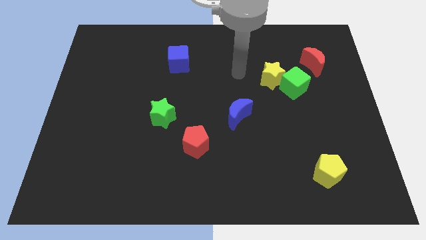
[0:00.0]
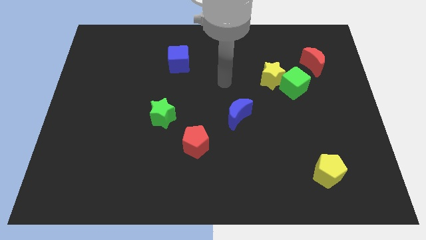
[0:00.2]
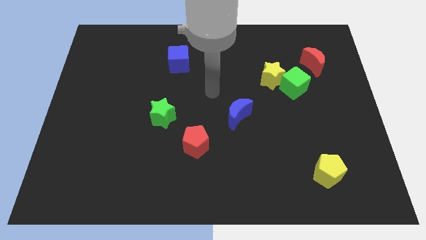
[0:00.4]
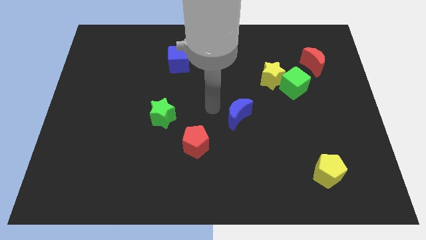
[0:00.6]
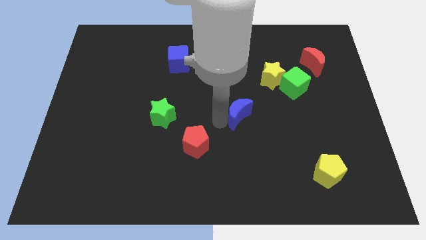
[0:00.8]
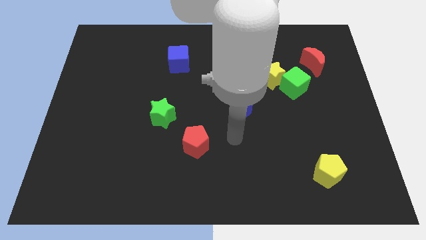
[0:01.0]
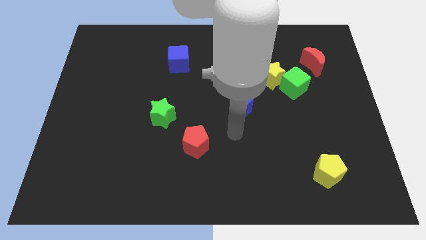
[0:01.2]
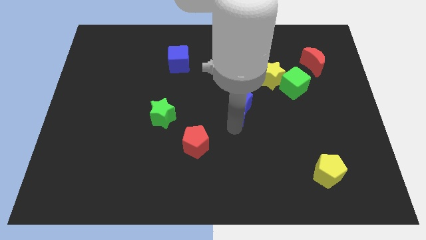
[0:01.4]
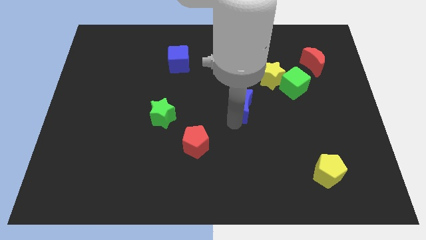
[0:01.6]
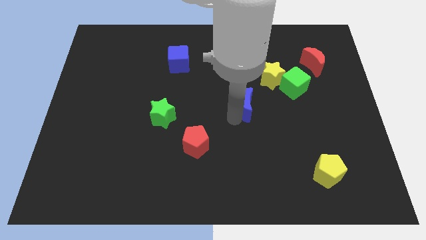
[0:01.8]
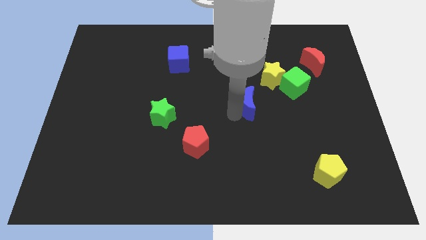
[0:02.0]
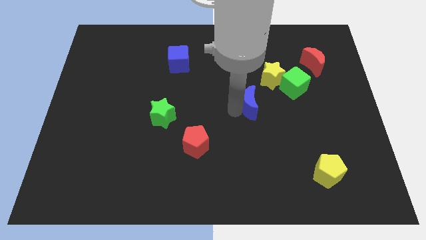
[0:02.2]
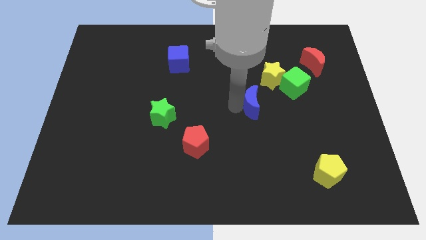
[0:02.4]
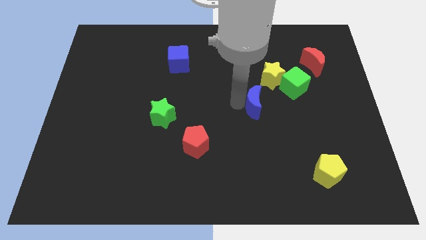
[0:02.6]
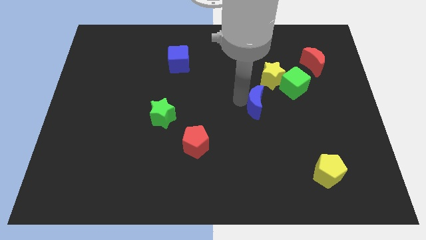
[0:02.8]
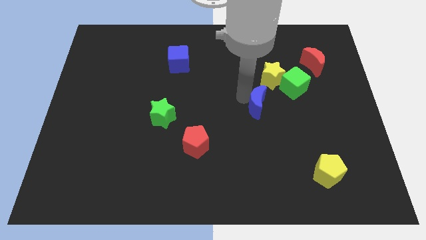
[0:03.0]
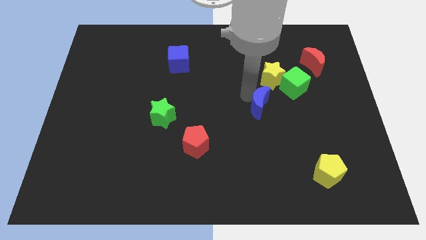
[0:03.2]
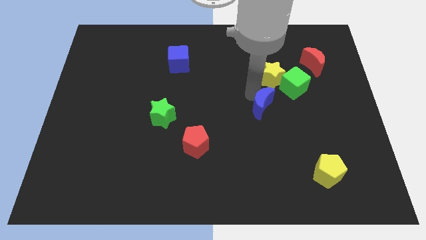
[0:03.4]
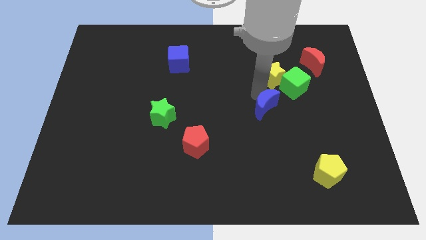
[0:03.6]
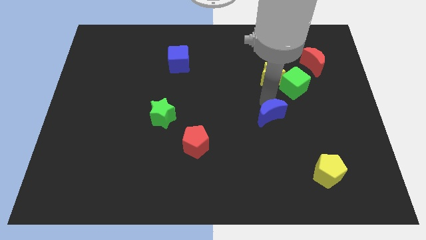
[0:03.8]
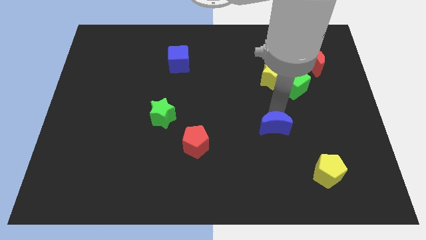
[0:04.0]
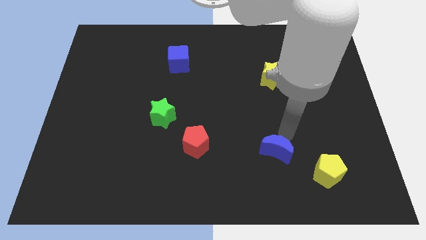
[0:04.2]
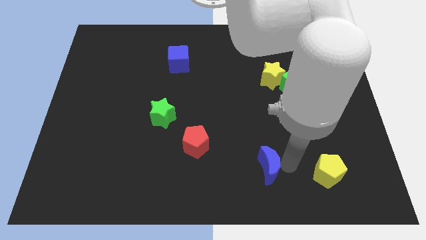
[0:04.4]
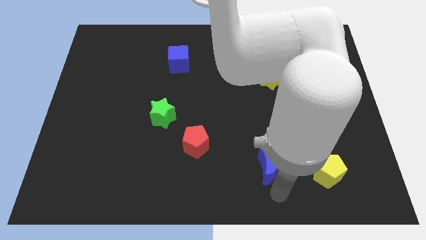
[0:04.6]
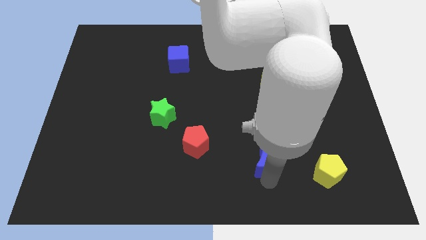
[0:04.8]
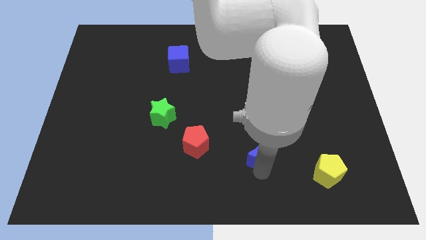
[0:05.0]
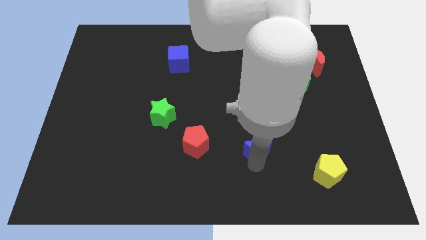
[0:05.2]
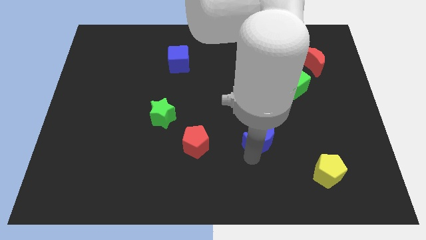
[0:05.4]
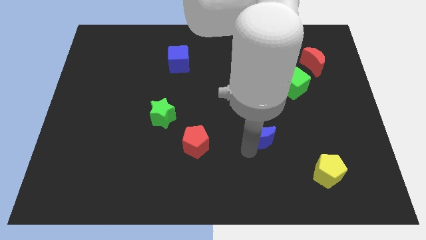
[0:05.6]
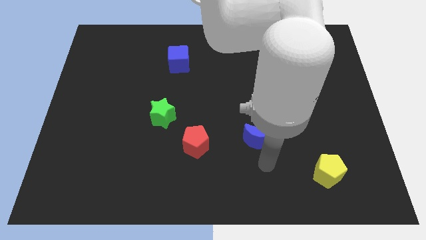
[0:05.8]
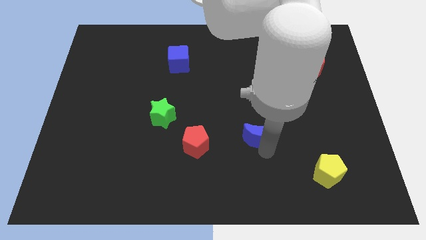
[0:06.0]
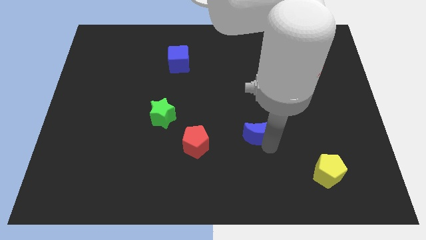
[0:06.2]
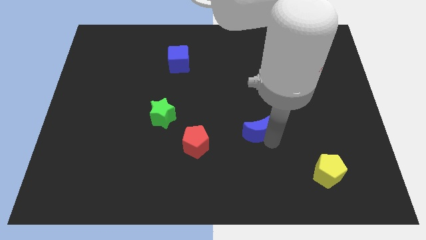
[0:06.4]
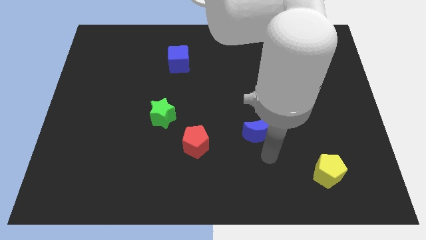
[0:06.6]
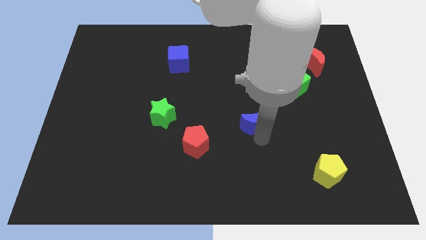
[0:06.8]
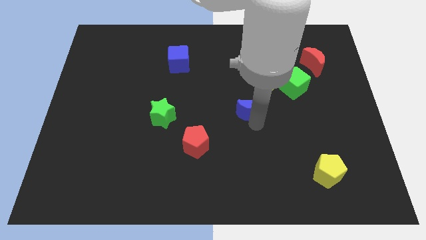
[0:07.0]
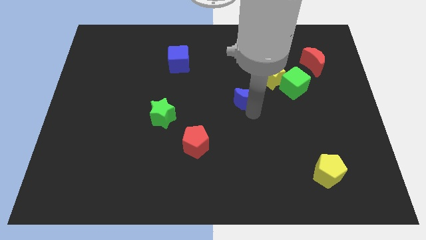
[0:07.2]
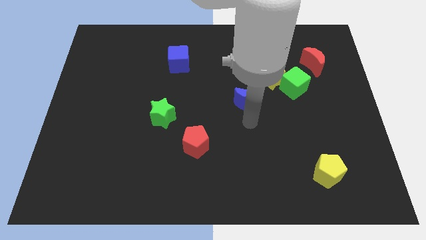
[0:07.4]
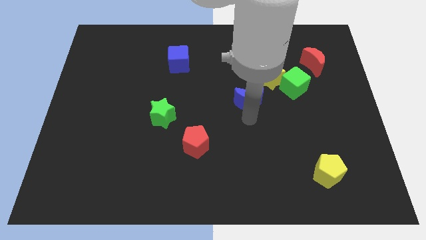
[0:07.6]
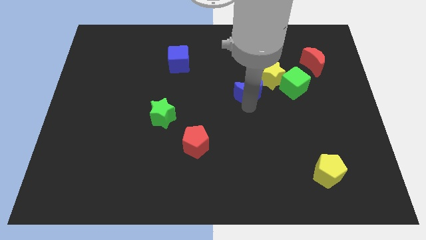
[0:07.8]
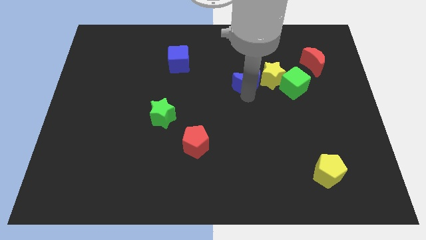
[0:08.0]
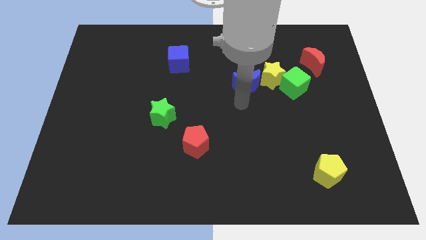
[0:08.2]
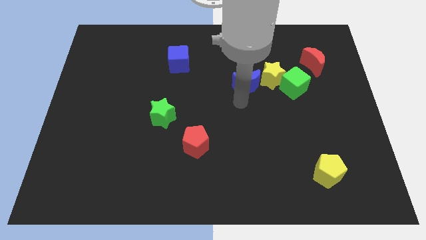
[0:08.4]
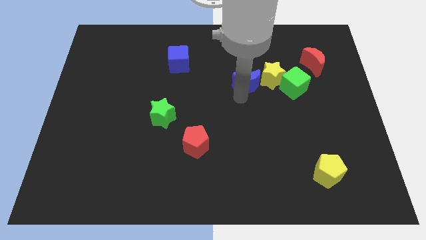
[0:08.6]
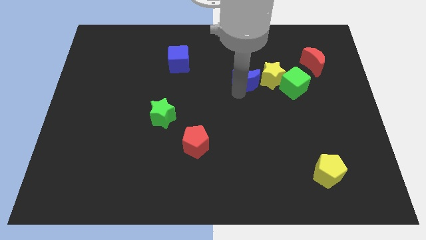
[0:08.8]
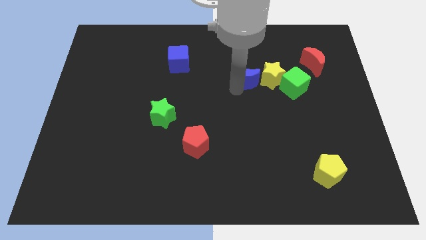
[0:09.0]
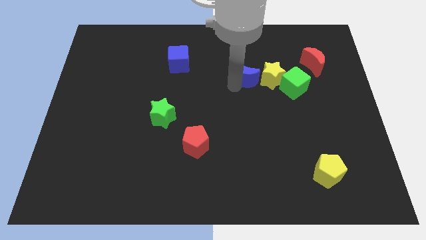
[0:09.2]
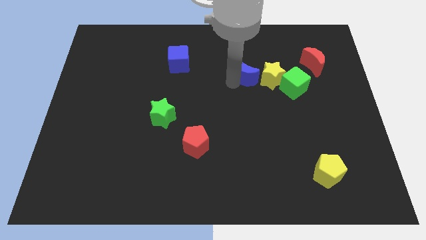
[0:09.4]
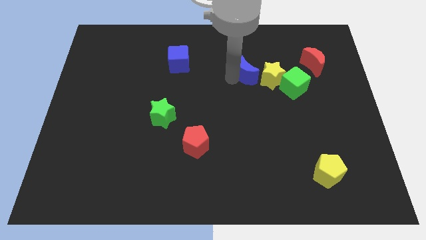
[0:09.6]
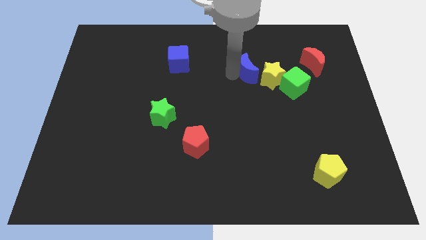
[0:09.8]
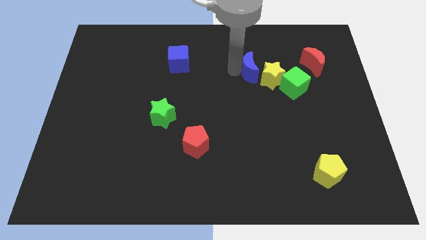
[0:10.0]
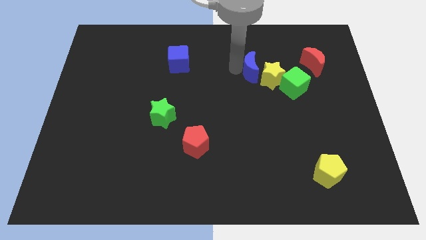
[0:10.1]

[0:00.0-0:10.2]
push the blue moon diagonally up and to the left of the green cube

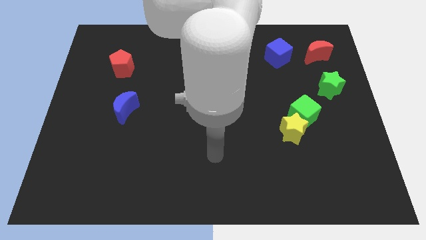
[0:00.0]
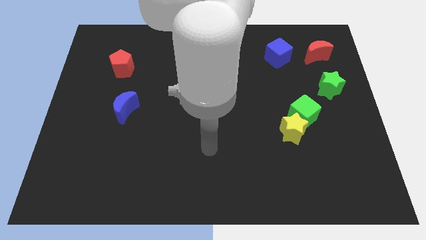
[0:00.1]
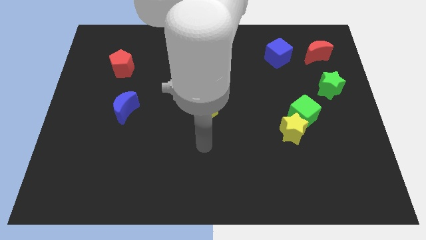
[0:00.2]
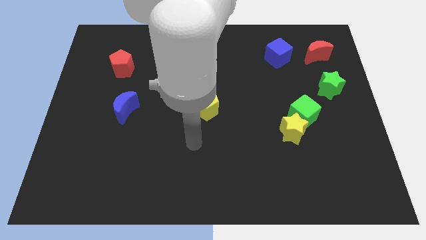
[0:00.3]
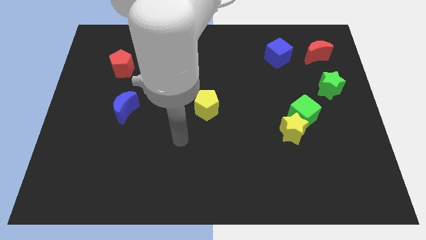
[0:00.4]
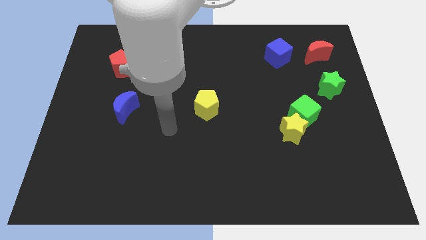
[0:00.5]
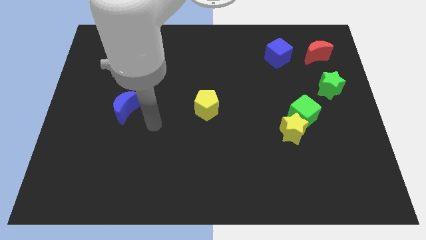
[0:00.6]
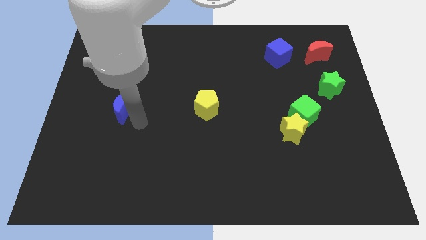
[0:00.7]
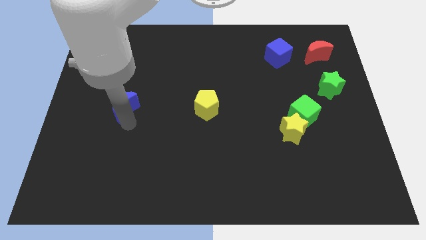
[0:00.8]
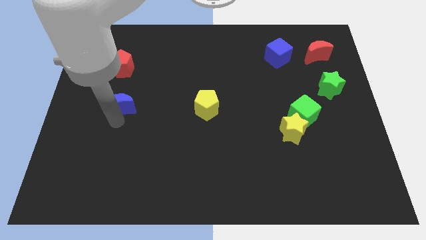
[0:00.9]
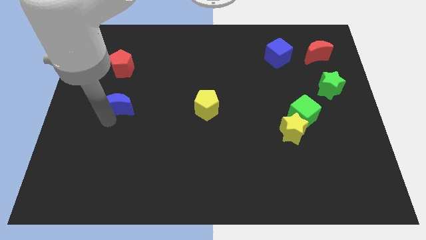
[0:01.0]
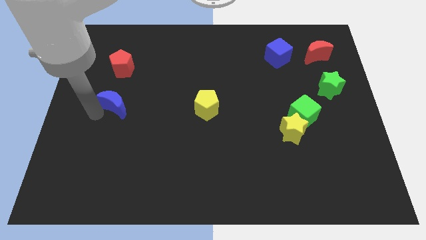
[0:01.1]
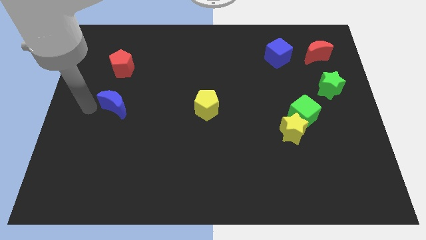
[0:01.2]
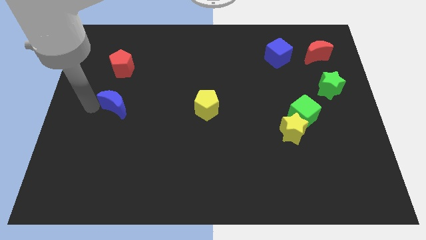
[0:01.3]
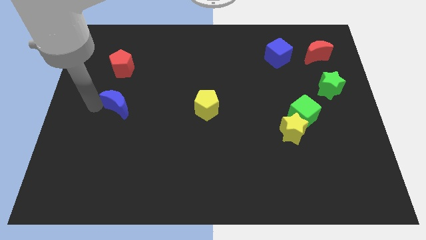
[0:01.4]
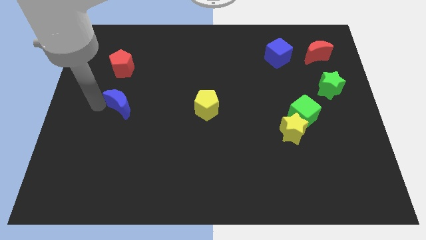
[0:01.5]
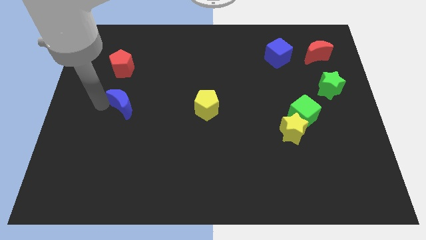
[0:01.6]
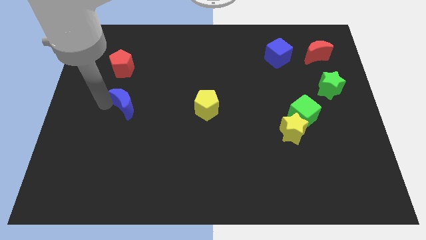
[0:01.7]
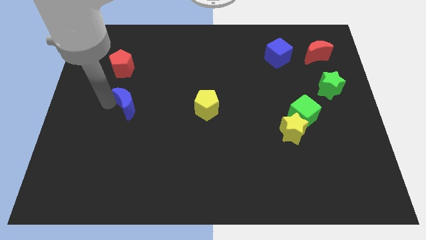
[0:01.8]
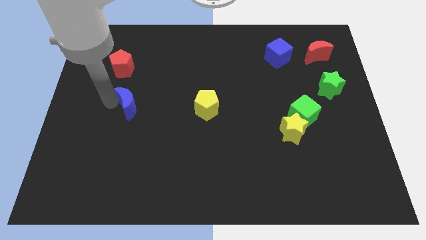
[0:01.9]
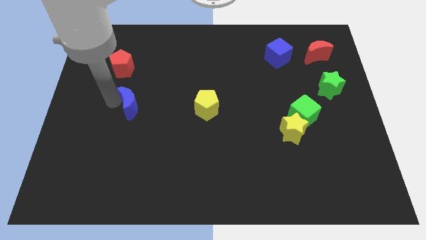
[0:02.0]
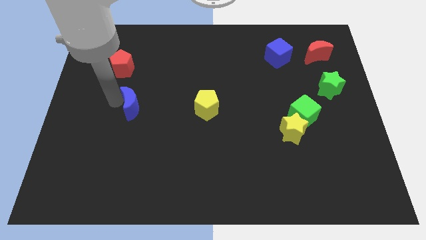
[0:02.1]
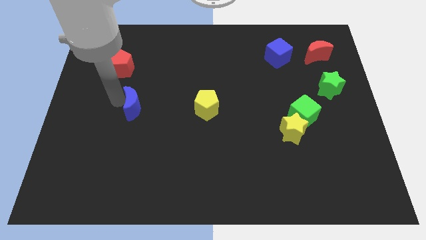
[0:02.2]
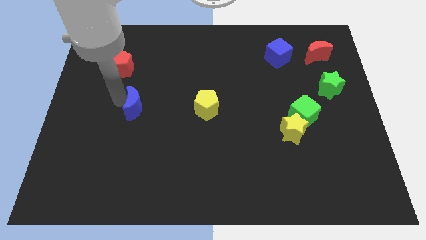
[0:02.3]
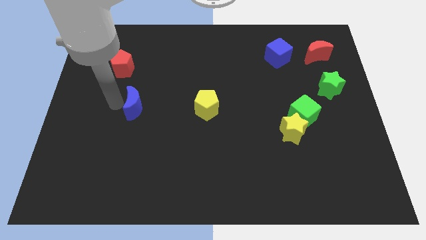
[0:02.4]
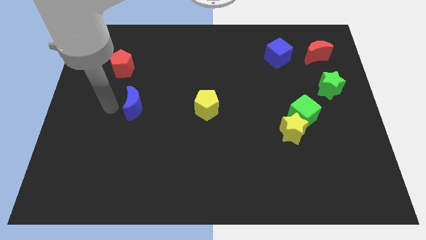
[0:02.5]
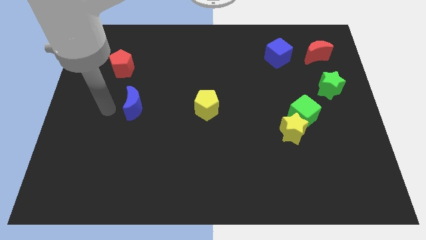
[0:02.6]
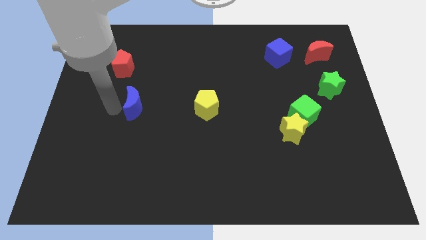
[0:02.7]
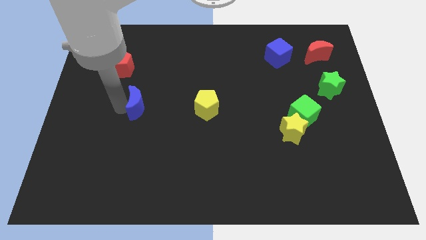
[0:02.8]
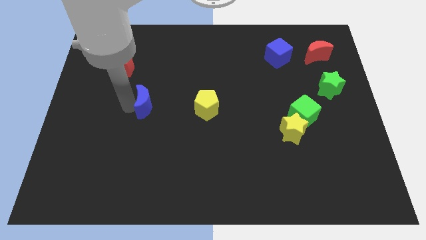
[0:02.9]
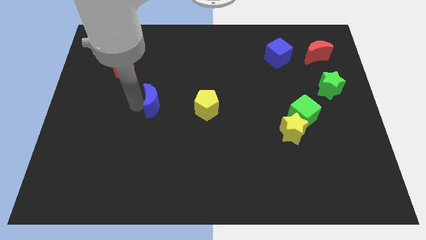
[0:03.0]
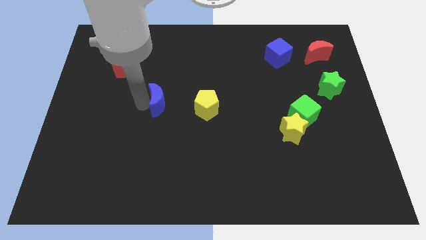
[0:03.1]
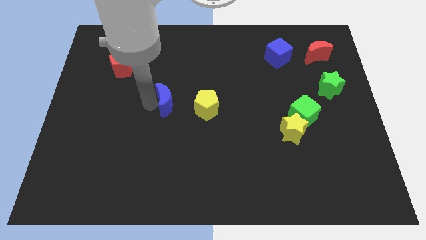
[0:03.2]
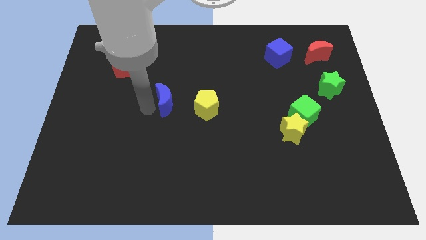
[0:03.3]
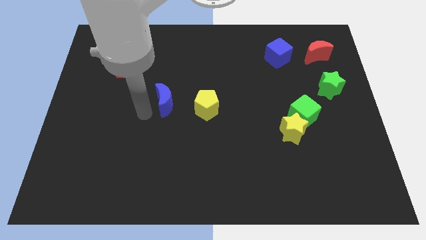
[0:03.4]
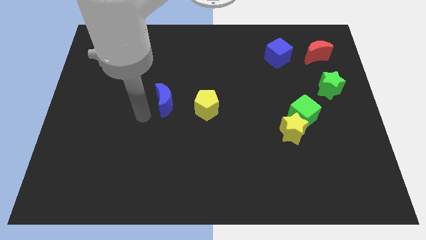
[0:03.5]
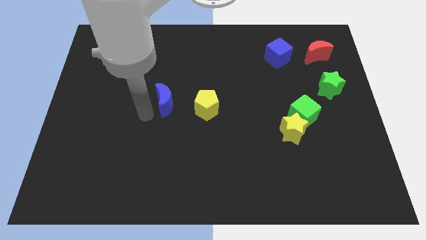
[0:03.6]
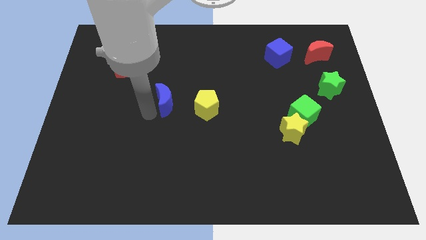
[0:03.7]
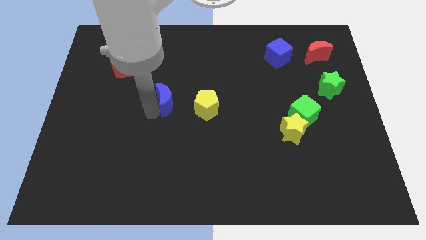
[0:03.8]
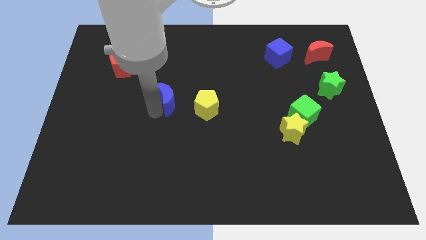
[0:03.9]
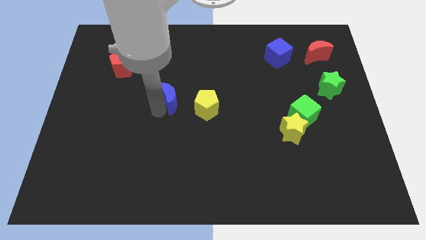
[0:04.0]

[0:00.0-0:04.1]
slide the blue moon to the top left of the yellow pentagon
